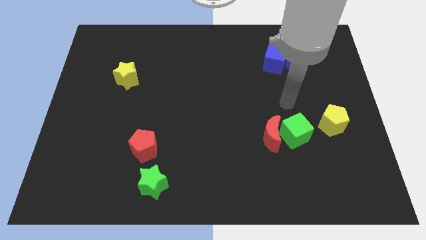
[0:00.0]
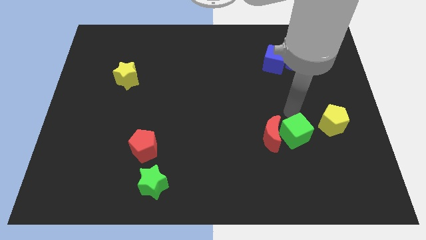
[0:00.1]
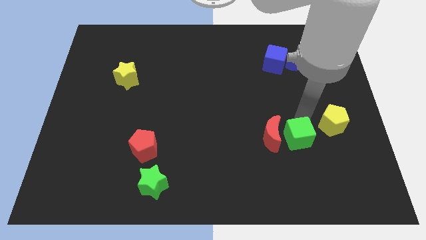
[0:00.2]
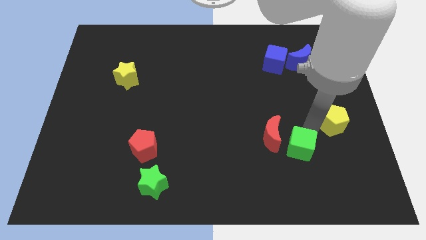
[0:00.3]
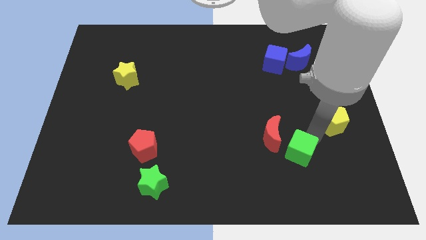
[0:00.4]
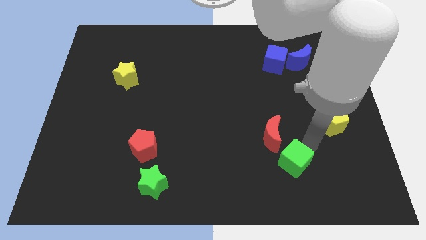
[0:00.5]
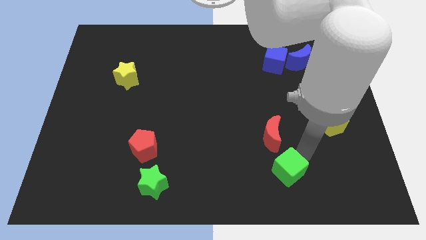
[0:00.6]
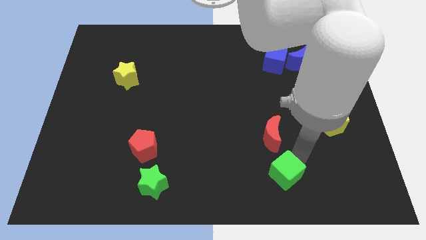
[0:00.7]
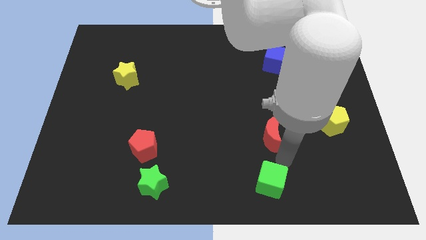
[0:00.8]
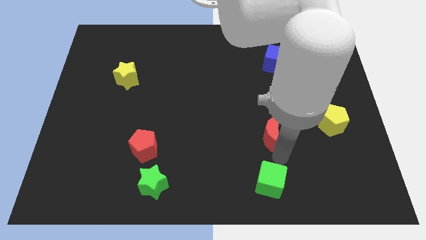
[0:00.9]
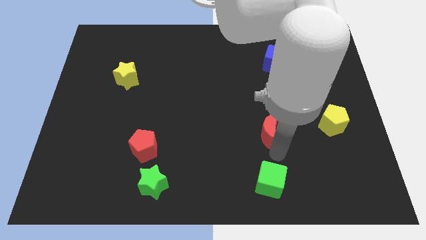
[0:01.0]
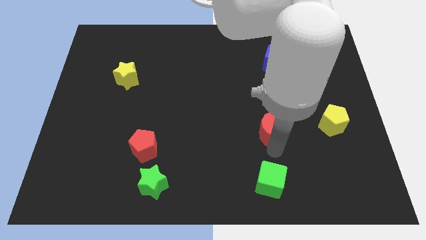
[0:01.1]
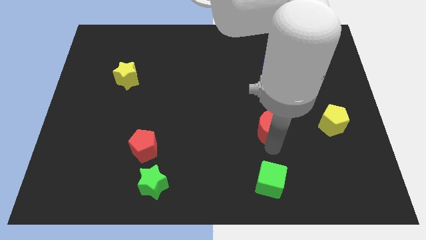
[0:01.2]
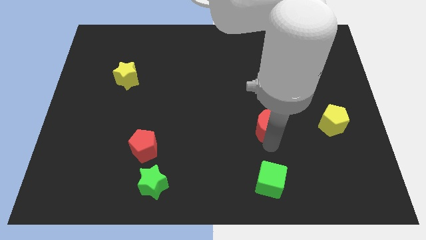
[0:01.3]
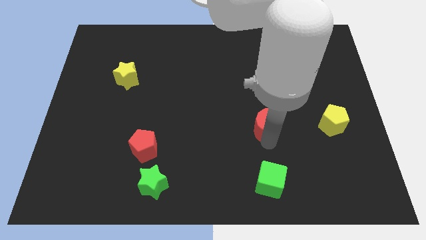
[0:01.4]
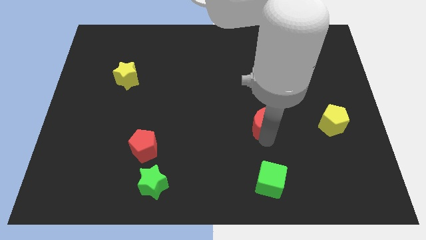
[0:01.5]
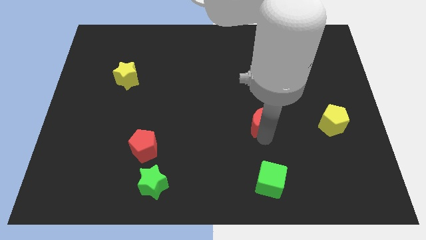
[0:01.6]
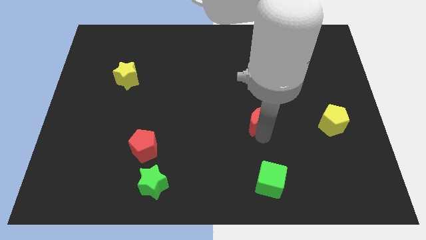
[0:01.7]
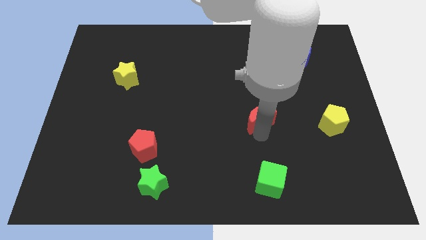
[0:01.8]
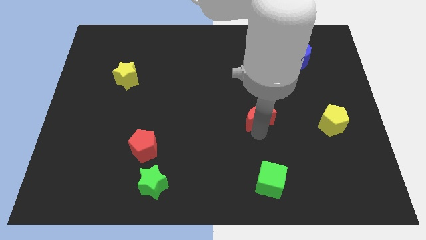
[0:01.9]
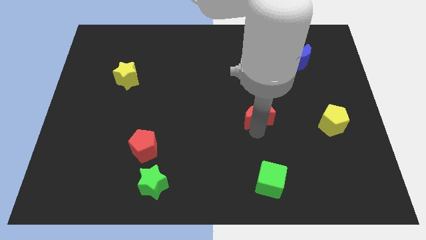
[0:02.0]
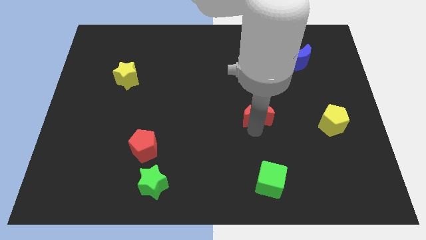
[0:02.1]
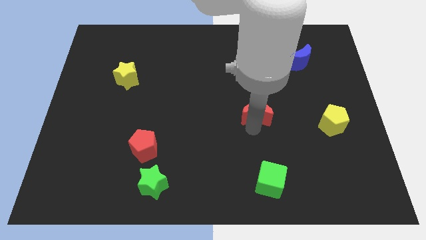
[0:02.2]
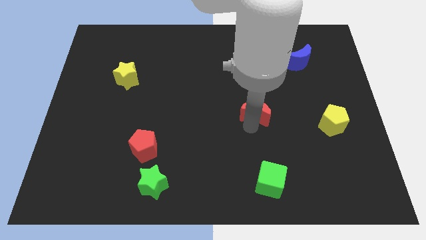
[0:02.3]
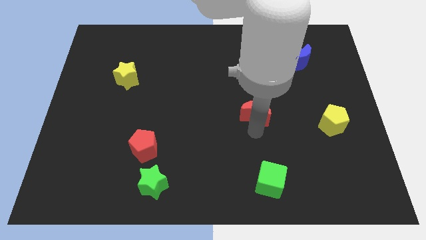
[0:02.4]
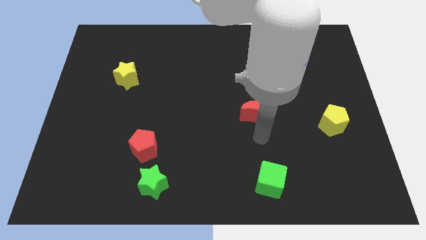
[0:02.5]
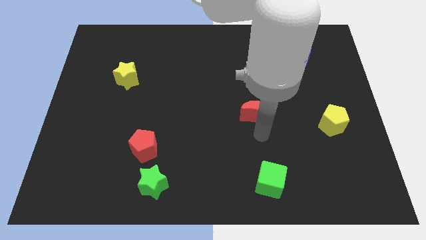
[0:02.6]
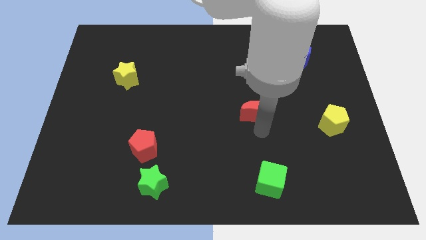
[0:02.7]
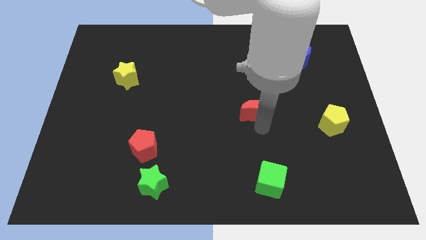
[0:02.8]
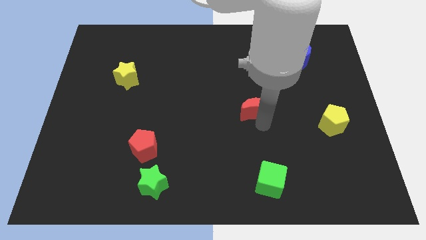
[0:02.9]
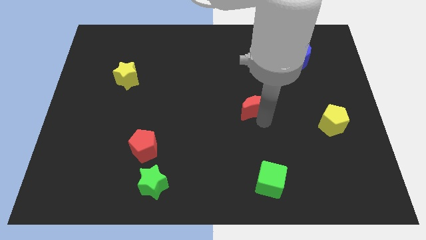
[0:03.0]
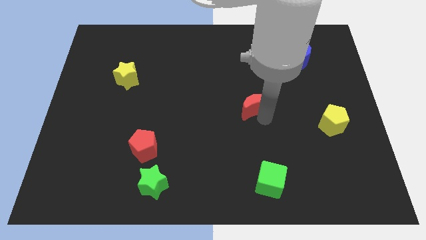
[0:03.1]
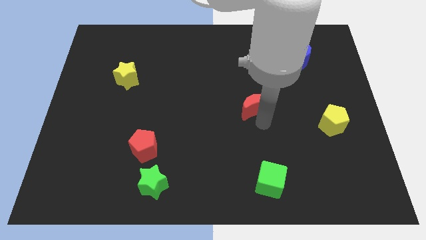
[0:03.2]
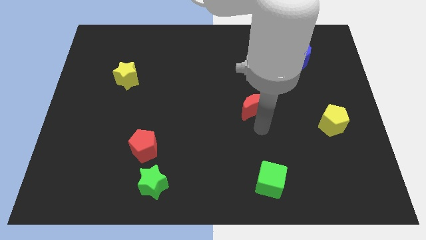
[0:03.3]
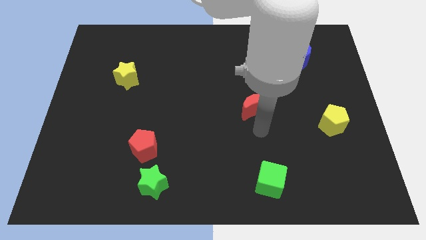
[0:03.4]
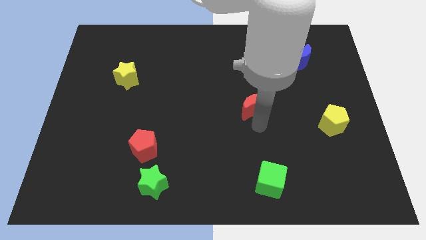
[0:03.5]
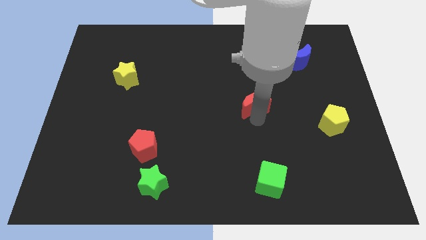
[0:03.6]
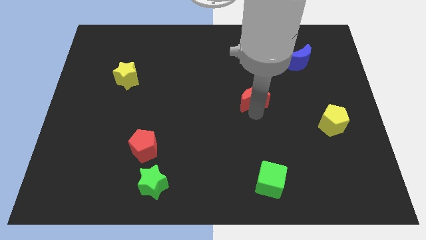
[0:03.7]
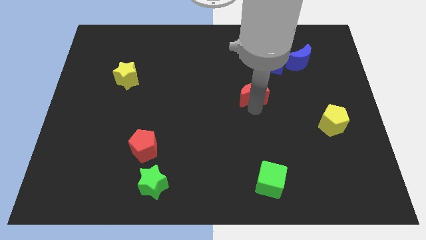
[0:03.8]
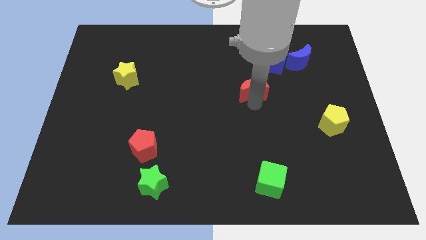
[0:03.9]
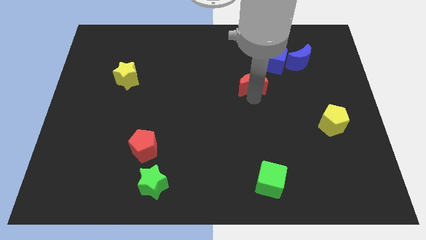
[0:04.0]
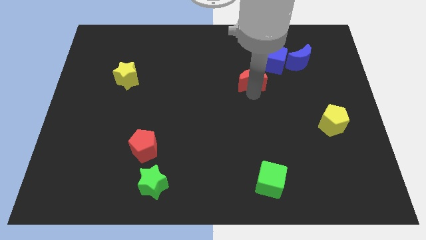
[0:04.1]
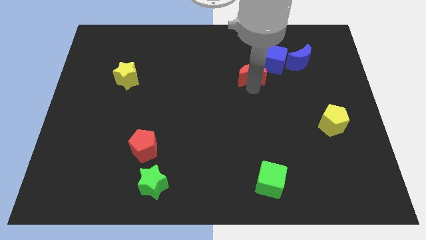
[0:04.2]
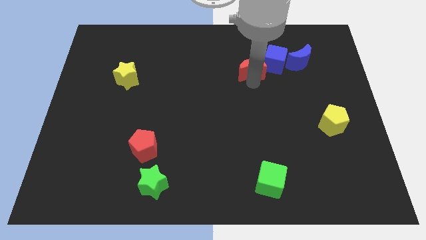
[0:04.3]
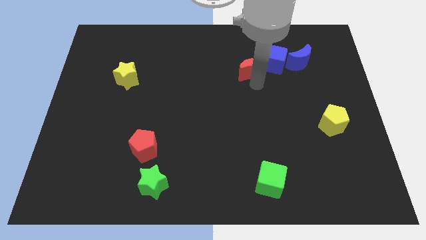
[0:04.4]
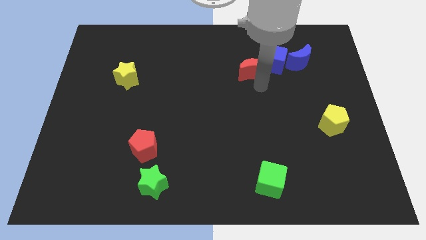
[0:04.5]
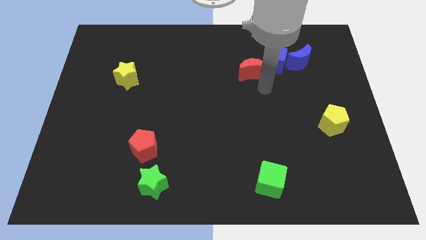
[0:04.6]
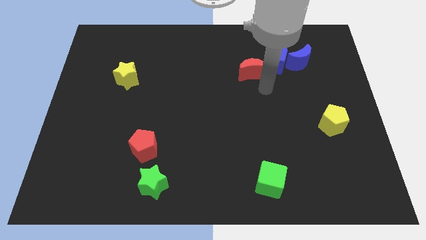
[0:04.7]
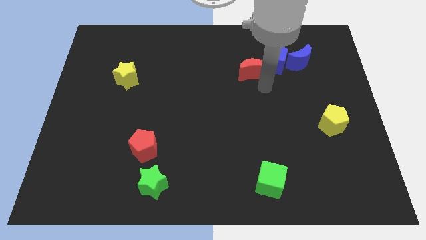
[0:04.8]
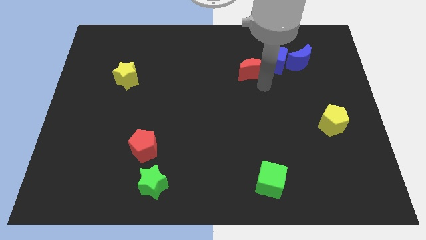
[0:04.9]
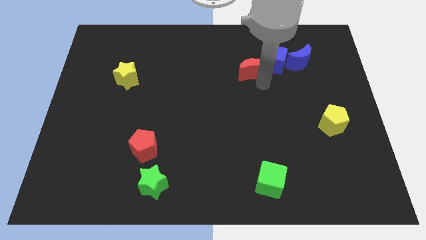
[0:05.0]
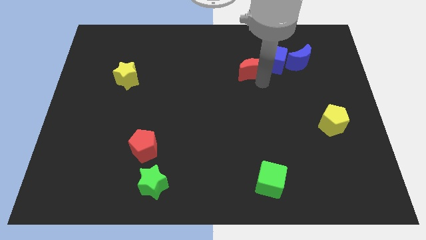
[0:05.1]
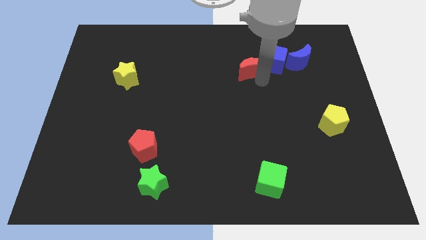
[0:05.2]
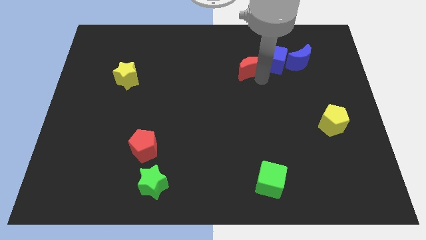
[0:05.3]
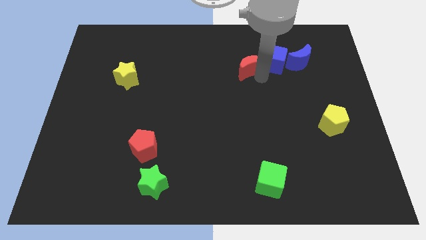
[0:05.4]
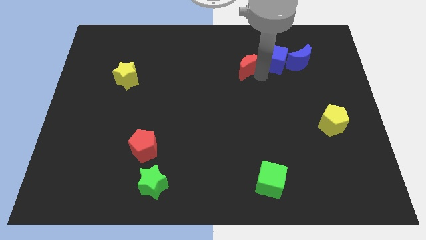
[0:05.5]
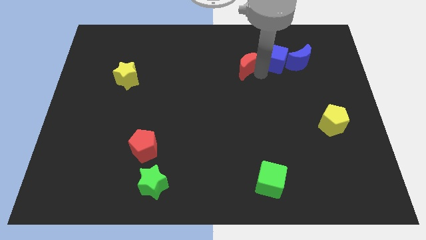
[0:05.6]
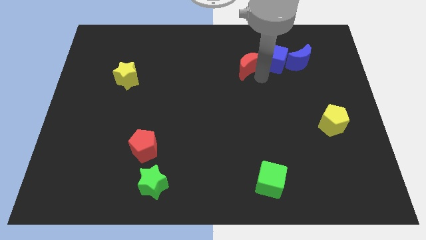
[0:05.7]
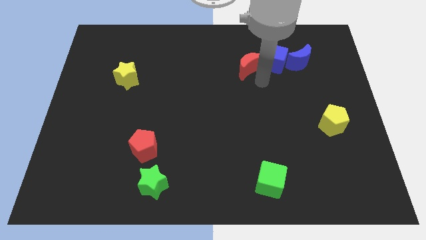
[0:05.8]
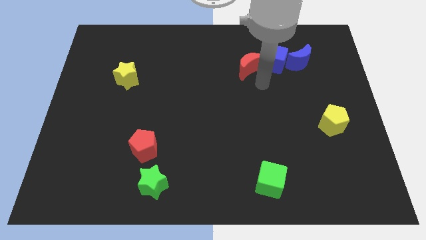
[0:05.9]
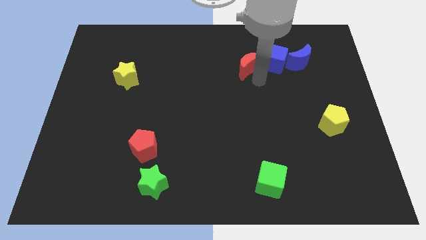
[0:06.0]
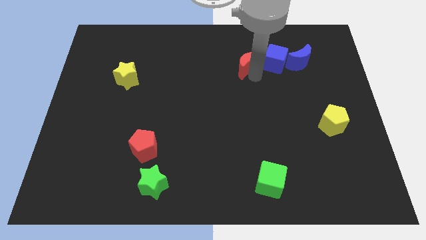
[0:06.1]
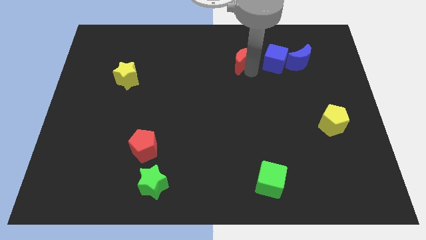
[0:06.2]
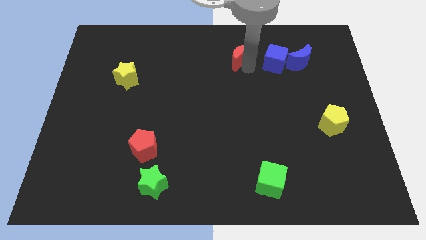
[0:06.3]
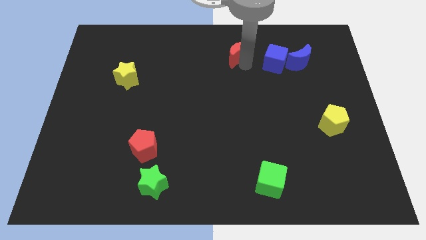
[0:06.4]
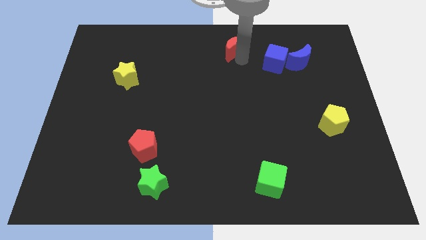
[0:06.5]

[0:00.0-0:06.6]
slide the red moon to the top side
